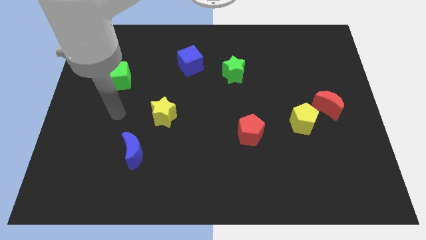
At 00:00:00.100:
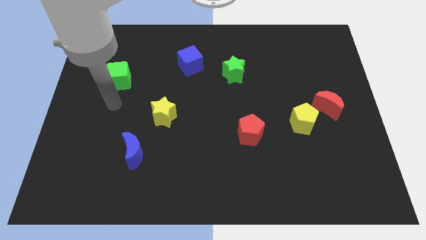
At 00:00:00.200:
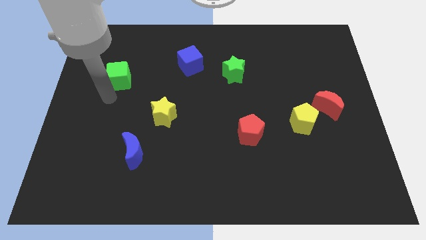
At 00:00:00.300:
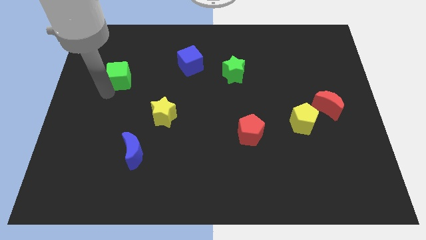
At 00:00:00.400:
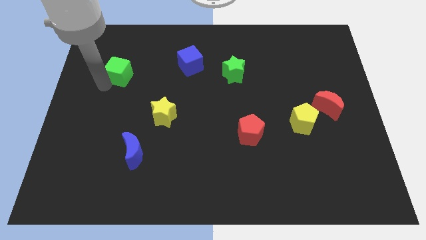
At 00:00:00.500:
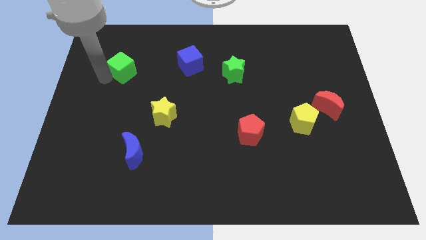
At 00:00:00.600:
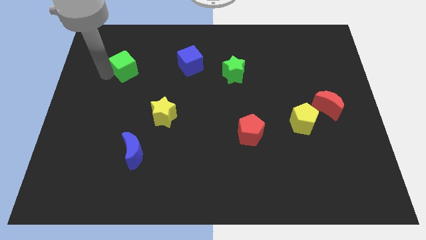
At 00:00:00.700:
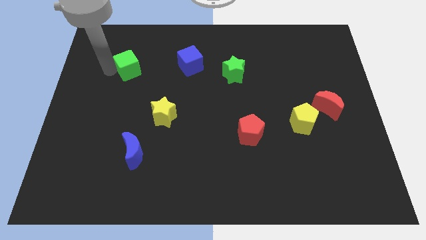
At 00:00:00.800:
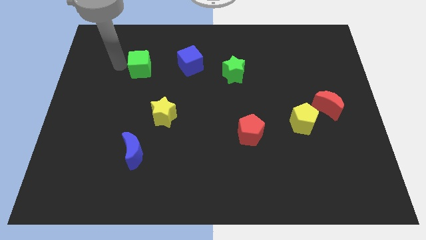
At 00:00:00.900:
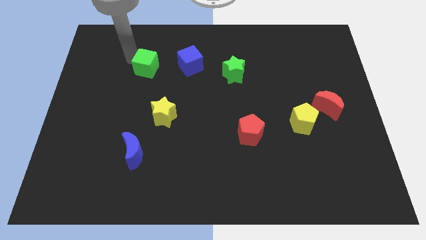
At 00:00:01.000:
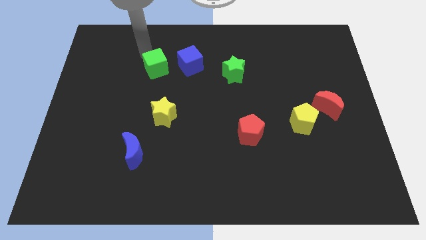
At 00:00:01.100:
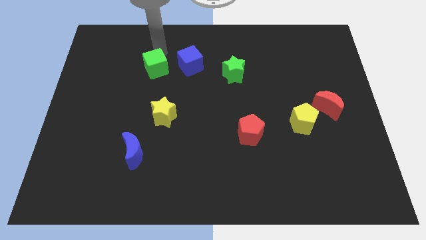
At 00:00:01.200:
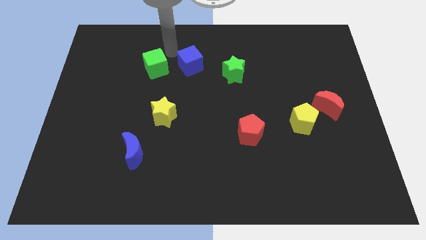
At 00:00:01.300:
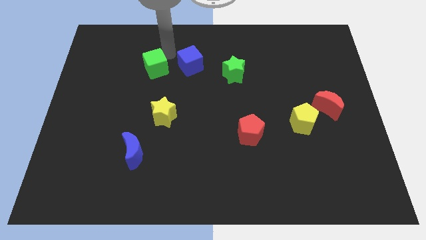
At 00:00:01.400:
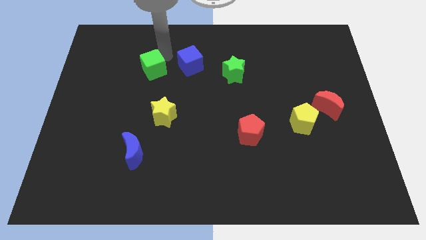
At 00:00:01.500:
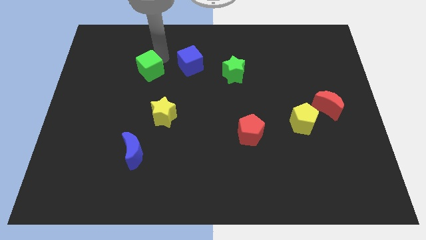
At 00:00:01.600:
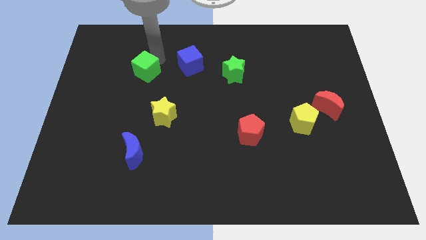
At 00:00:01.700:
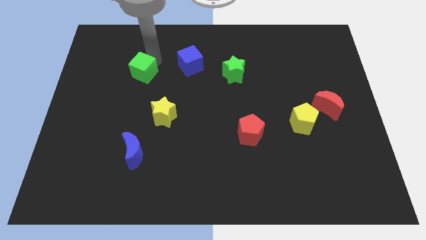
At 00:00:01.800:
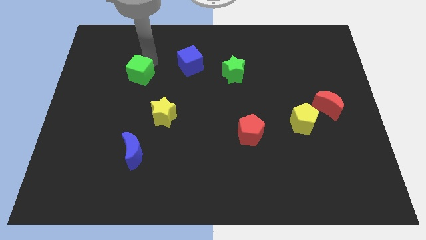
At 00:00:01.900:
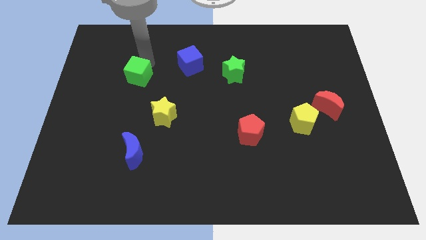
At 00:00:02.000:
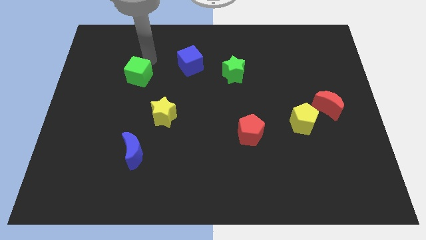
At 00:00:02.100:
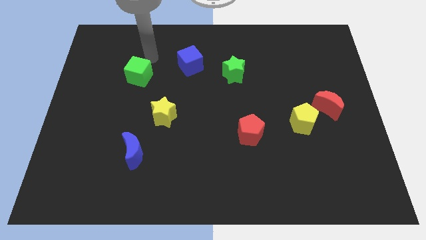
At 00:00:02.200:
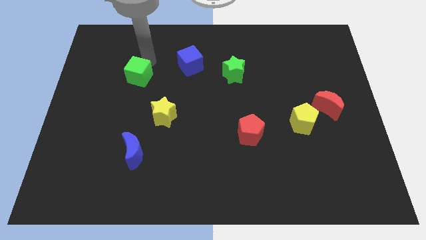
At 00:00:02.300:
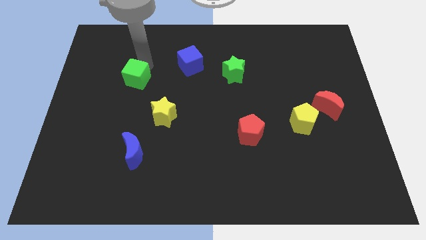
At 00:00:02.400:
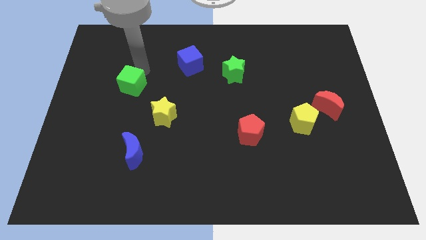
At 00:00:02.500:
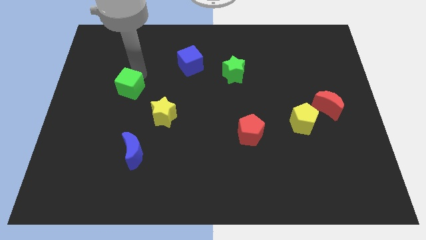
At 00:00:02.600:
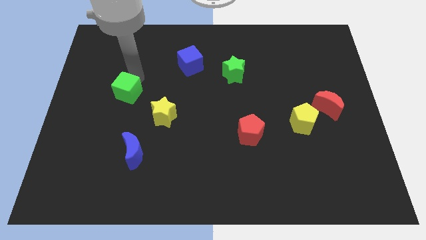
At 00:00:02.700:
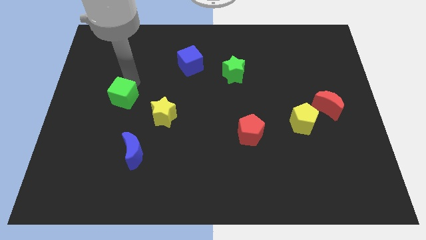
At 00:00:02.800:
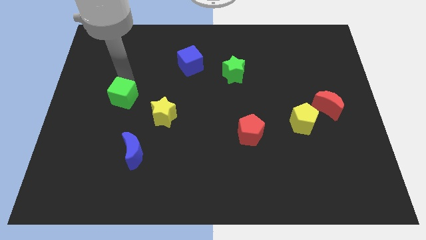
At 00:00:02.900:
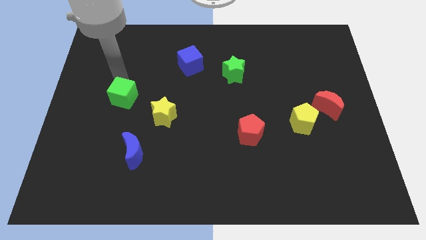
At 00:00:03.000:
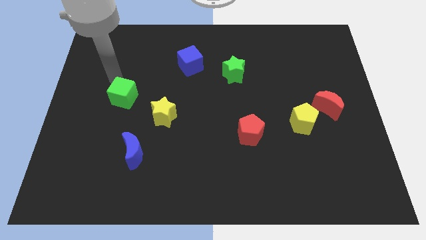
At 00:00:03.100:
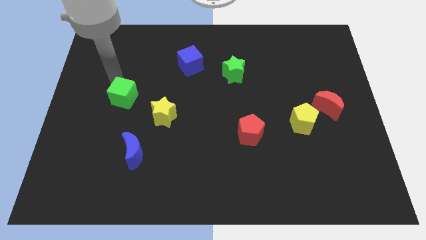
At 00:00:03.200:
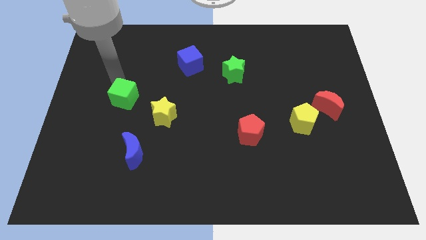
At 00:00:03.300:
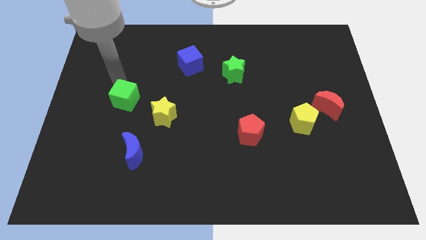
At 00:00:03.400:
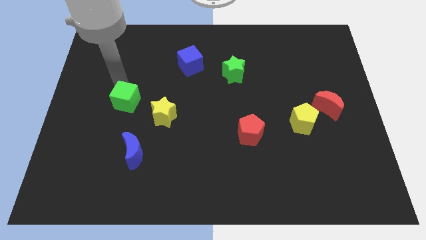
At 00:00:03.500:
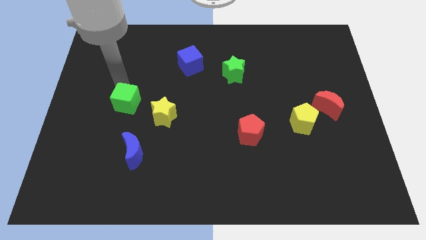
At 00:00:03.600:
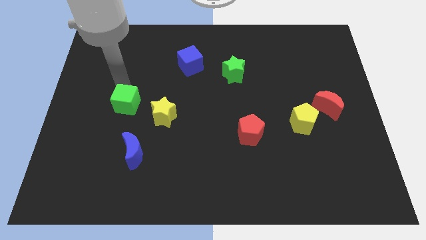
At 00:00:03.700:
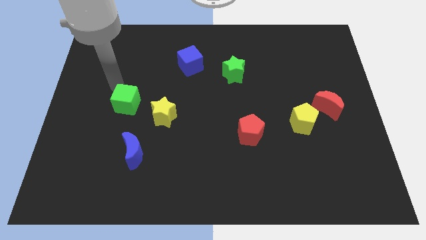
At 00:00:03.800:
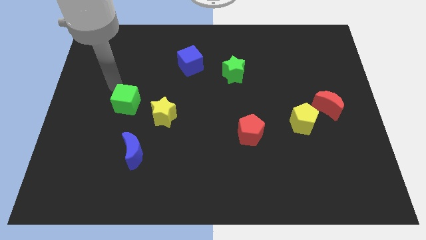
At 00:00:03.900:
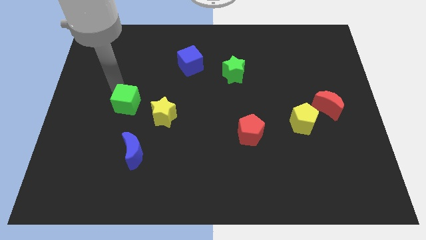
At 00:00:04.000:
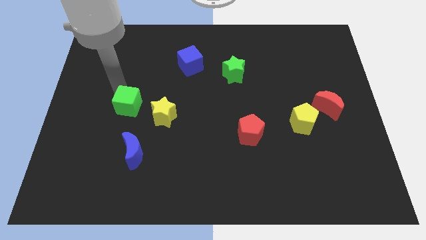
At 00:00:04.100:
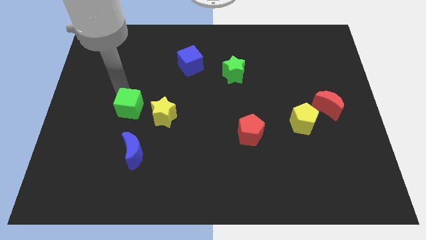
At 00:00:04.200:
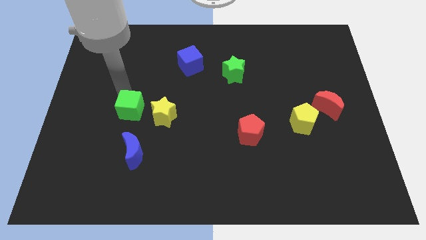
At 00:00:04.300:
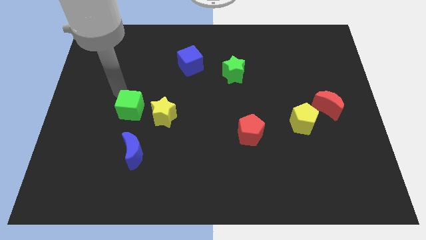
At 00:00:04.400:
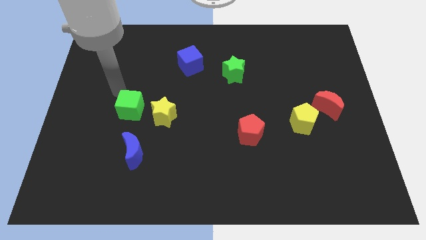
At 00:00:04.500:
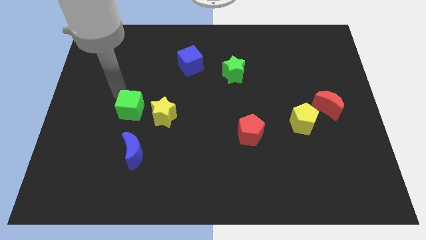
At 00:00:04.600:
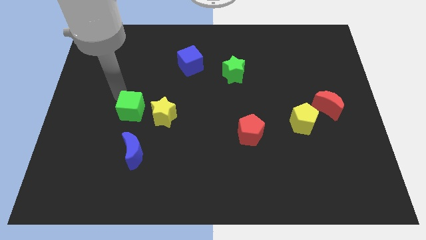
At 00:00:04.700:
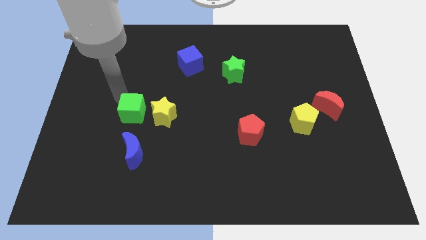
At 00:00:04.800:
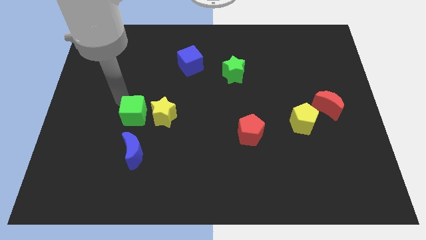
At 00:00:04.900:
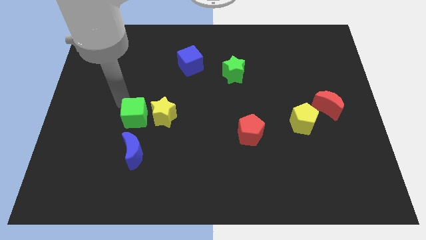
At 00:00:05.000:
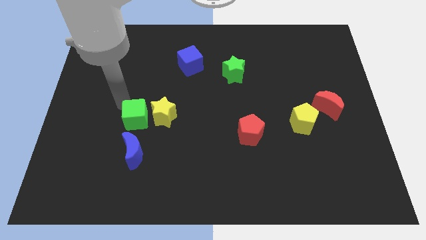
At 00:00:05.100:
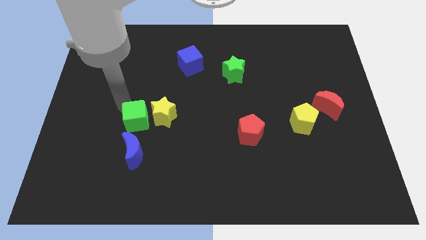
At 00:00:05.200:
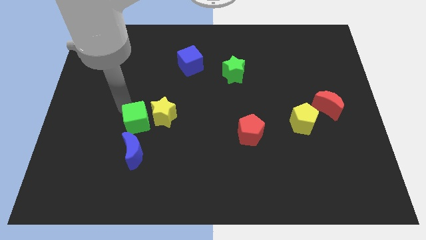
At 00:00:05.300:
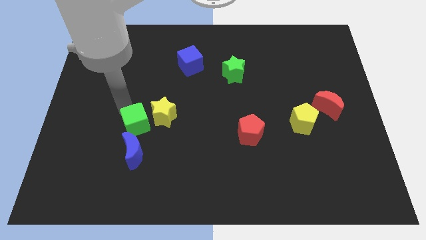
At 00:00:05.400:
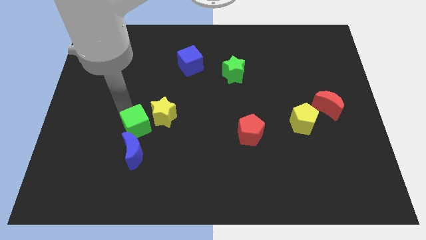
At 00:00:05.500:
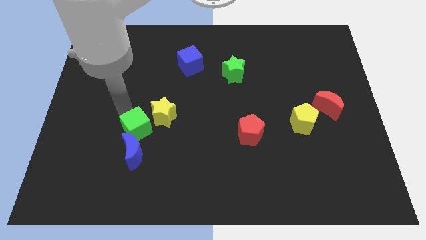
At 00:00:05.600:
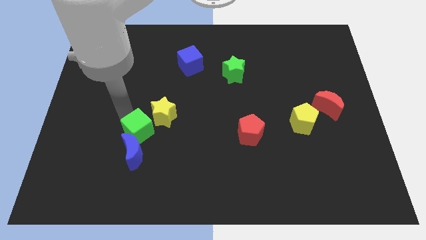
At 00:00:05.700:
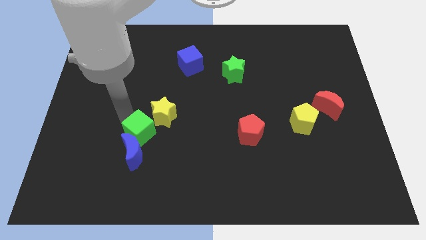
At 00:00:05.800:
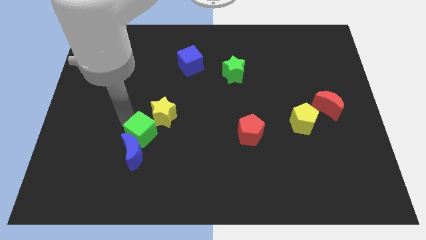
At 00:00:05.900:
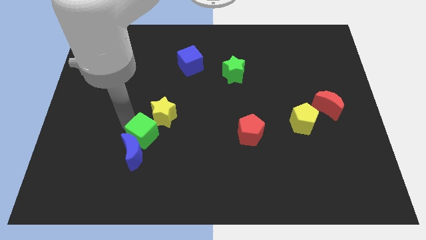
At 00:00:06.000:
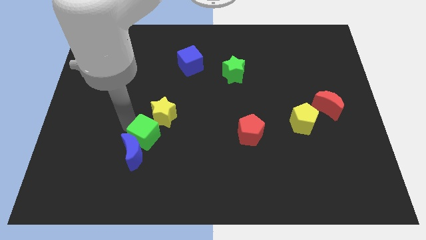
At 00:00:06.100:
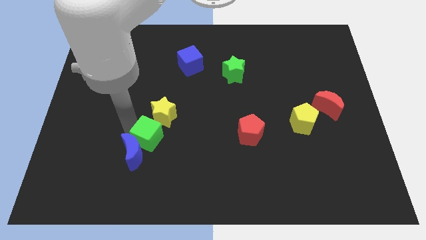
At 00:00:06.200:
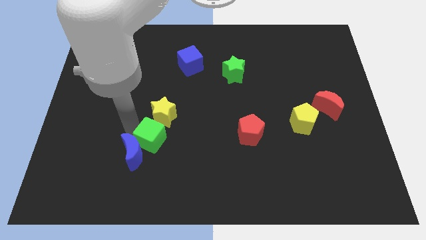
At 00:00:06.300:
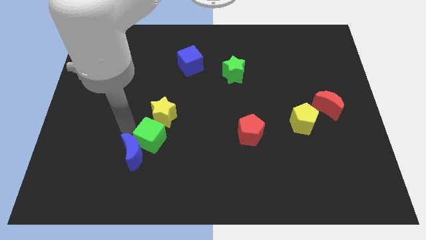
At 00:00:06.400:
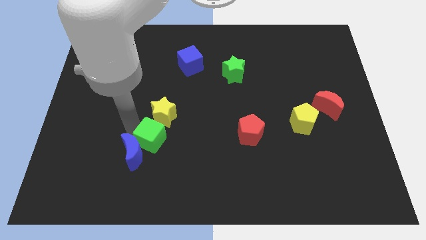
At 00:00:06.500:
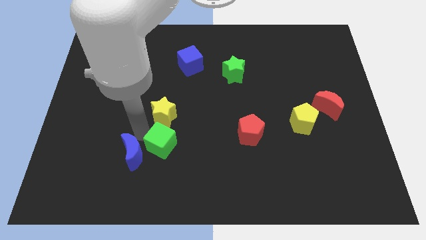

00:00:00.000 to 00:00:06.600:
move the green cube down and then to the right

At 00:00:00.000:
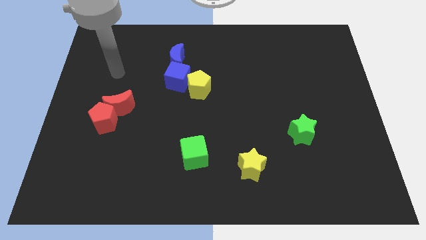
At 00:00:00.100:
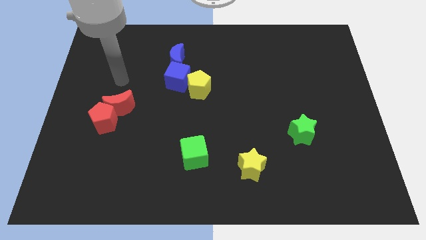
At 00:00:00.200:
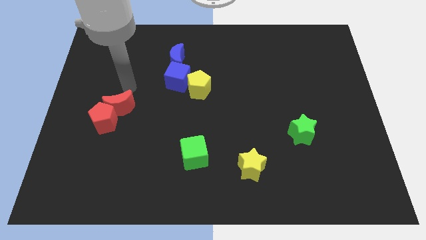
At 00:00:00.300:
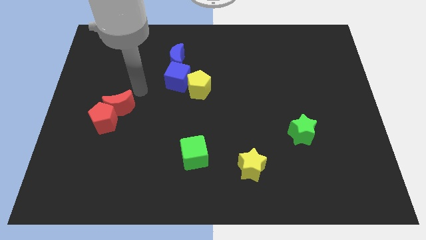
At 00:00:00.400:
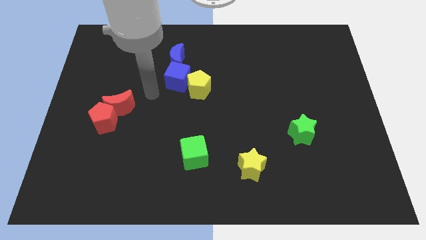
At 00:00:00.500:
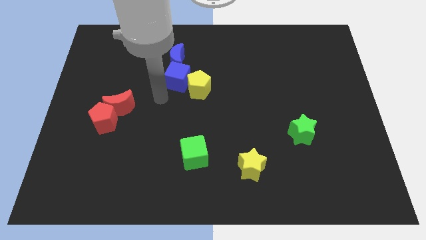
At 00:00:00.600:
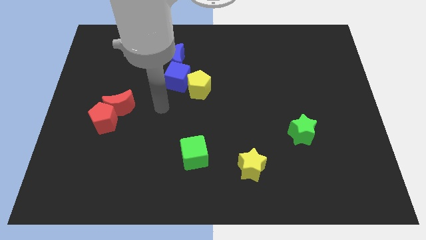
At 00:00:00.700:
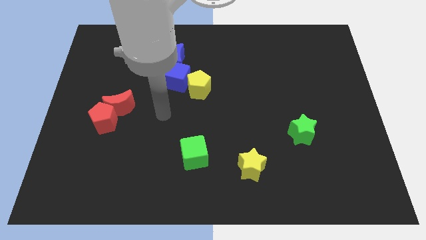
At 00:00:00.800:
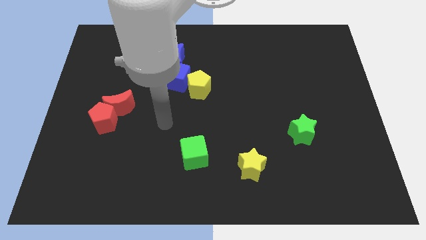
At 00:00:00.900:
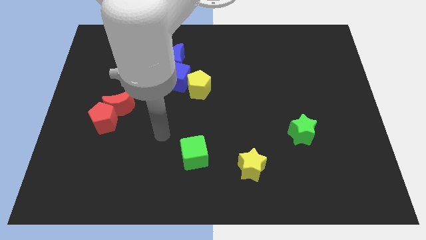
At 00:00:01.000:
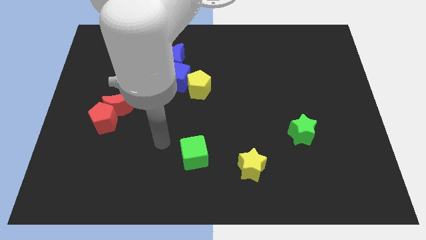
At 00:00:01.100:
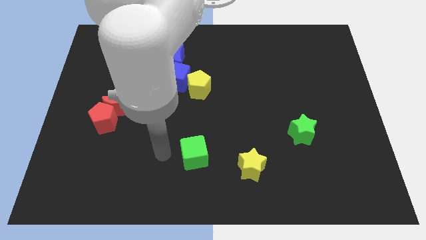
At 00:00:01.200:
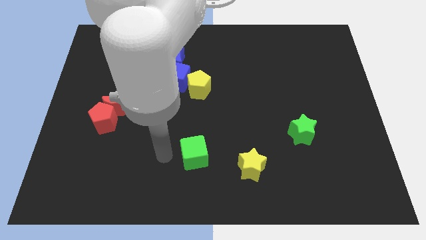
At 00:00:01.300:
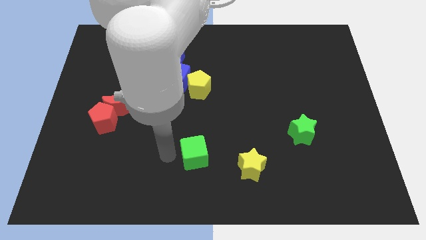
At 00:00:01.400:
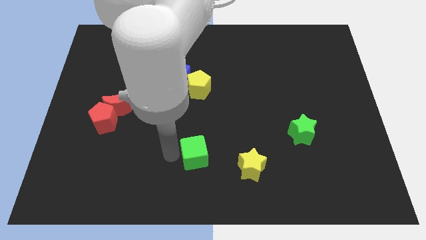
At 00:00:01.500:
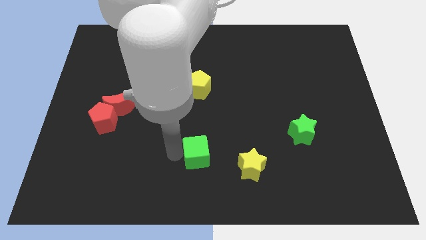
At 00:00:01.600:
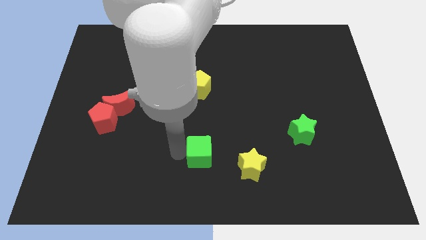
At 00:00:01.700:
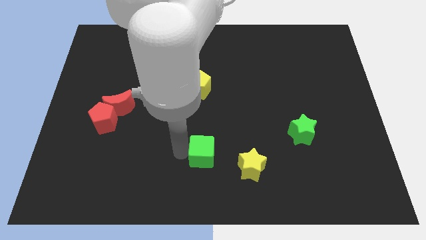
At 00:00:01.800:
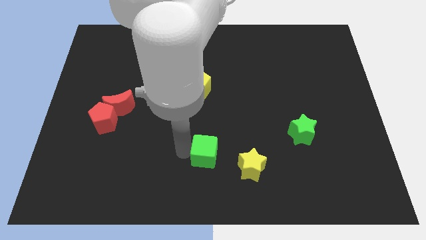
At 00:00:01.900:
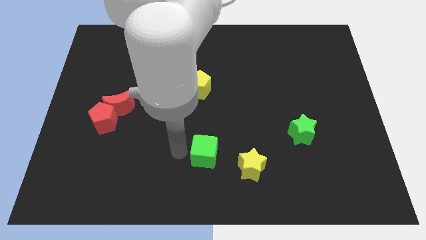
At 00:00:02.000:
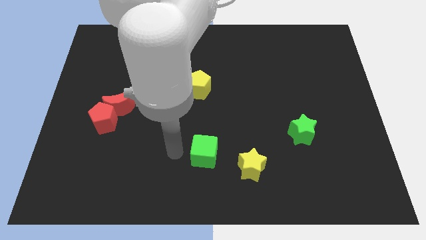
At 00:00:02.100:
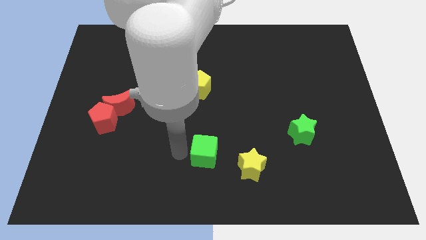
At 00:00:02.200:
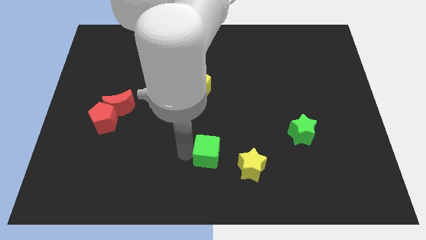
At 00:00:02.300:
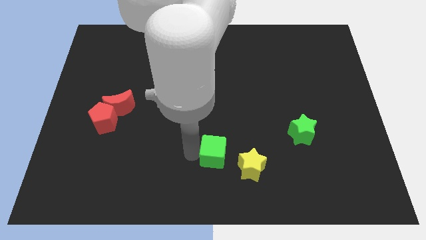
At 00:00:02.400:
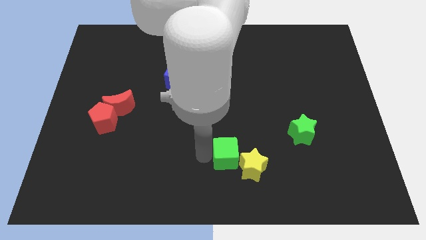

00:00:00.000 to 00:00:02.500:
slide the green cube to the right a little
